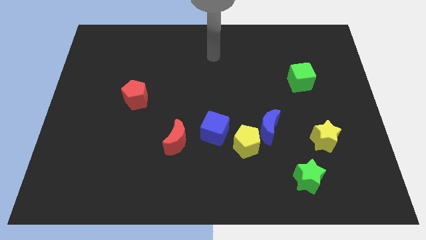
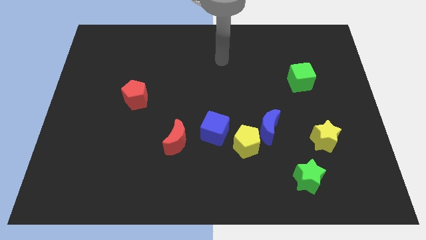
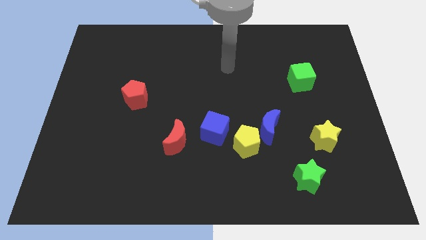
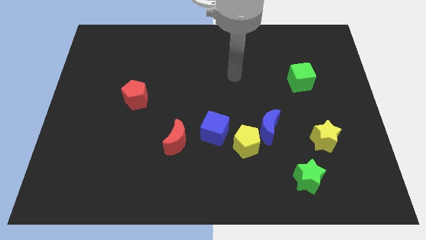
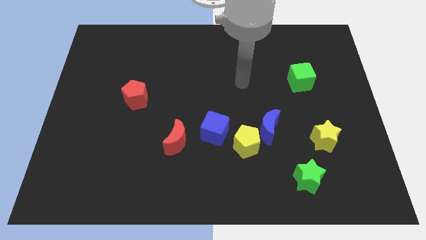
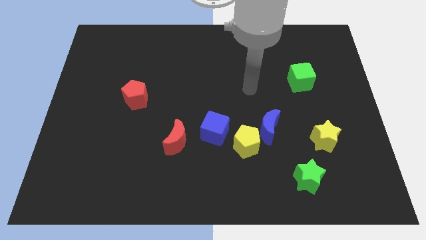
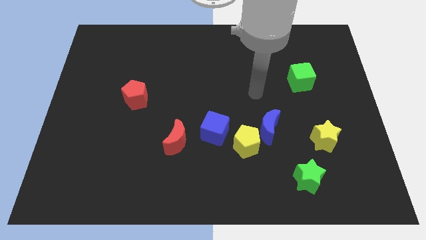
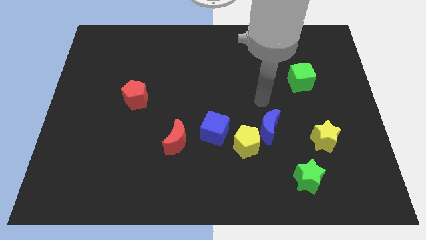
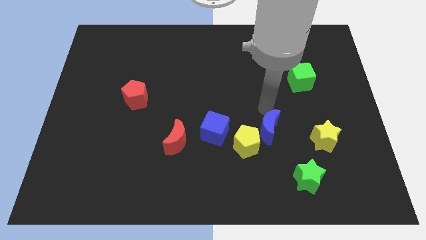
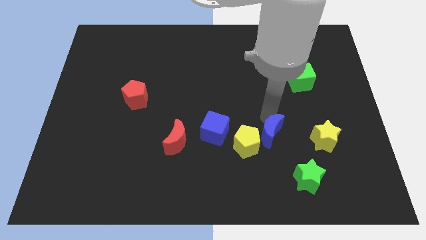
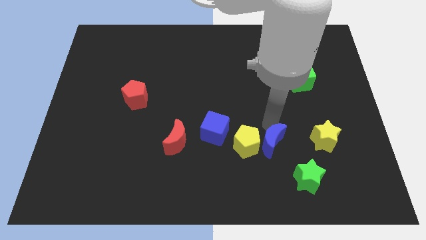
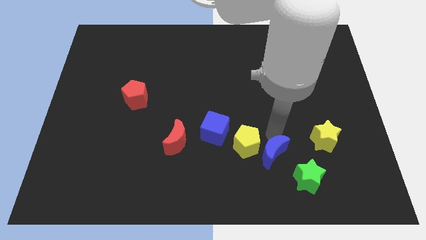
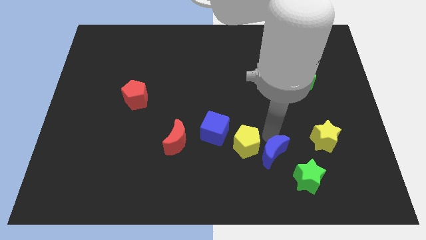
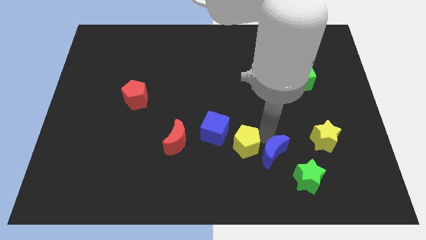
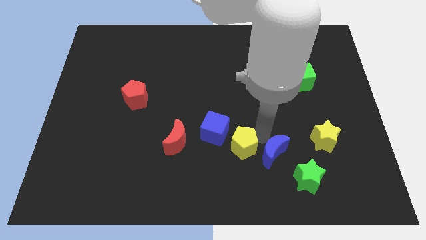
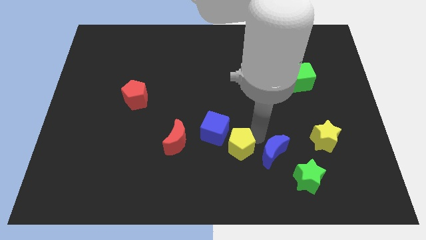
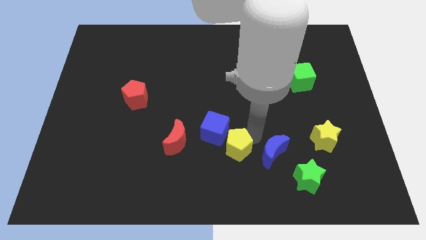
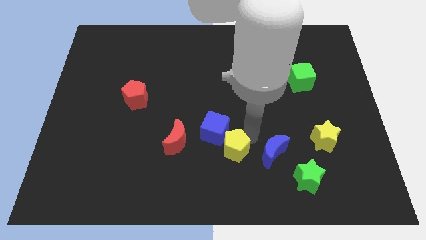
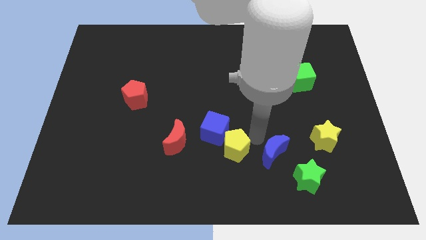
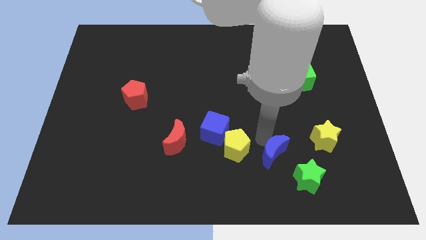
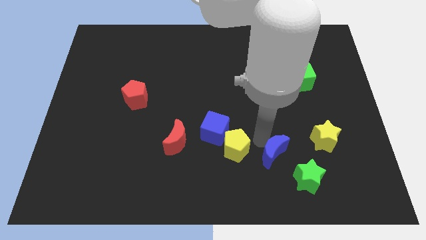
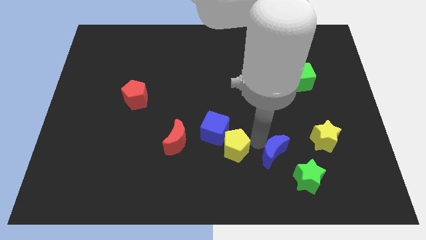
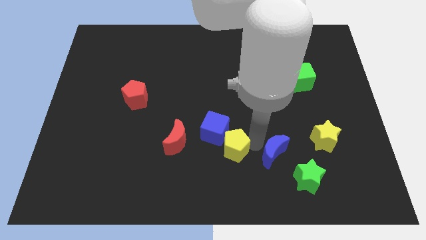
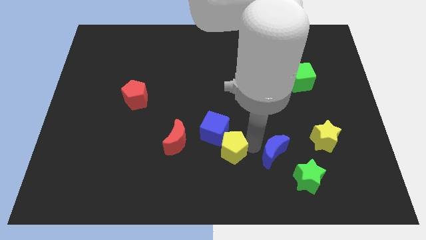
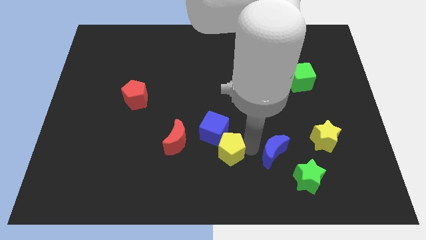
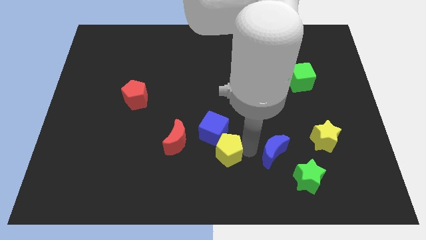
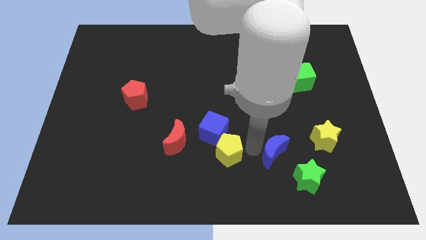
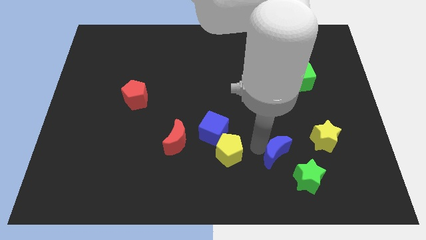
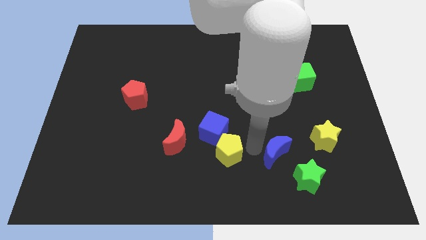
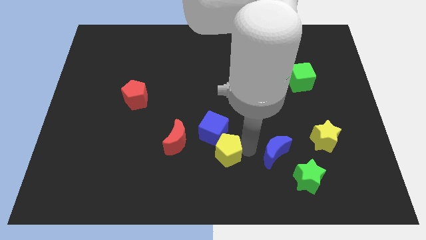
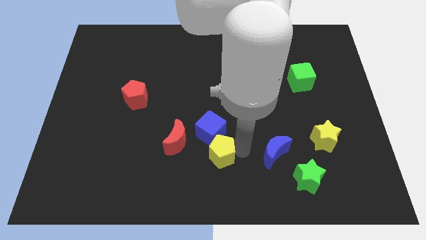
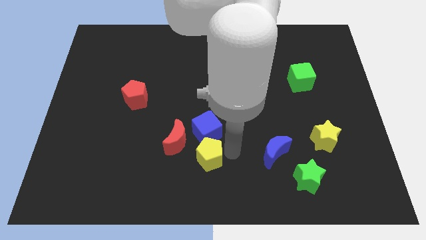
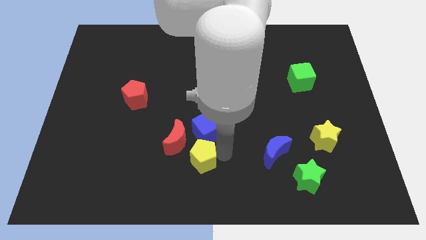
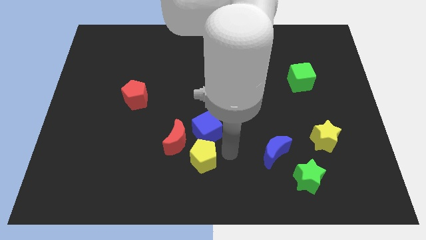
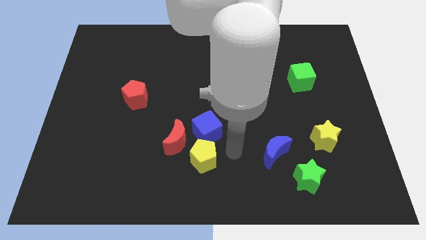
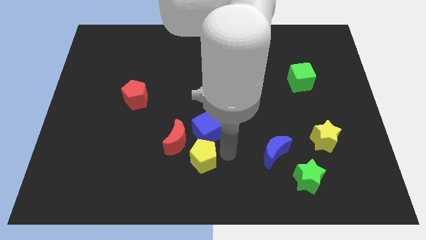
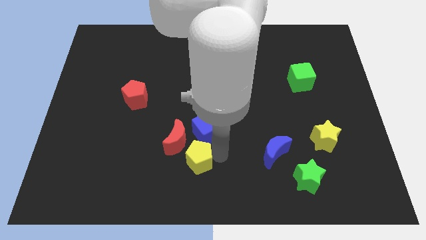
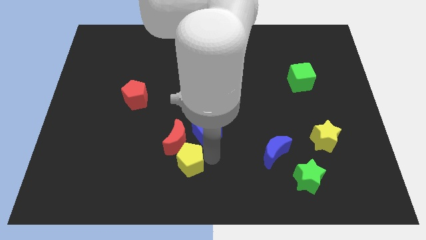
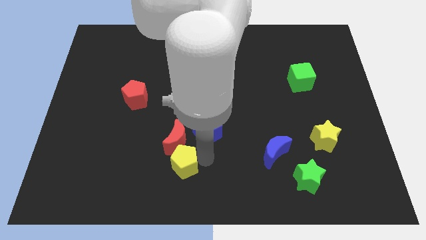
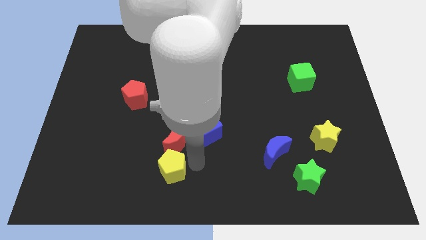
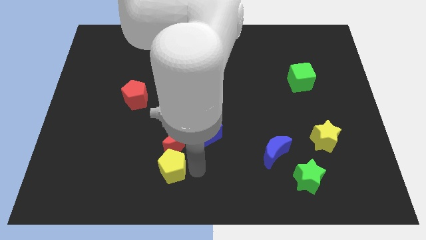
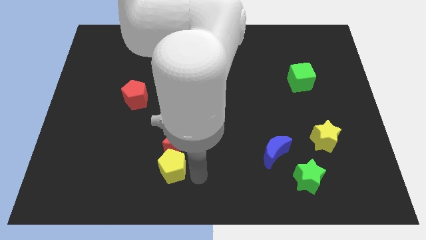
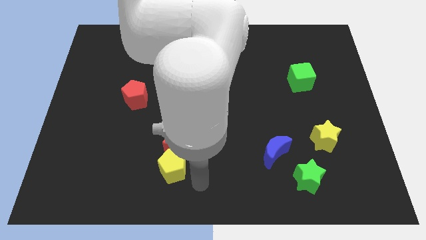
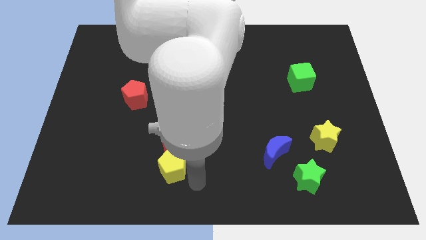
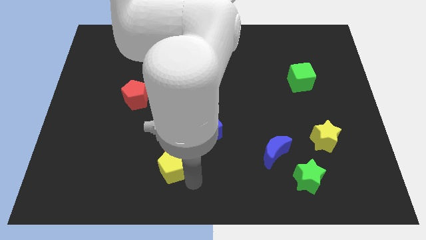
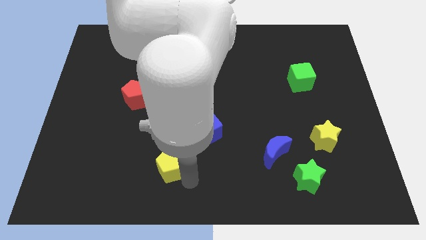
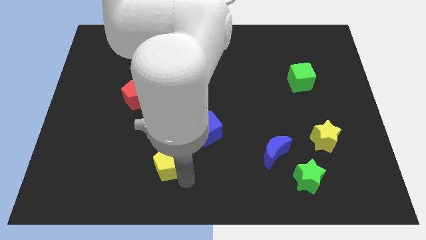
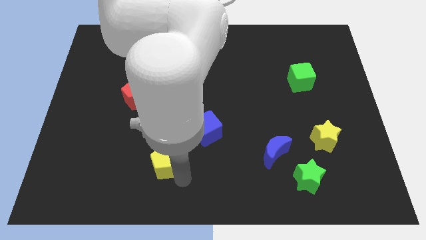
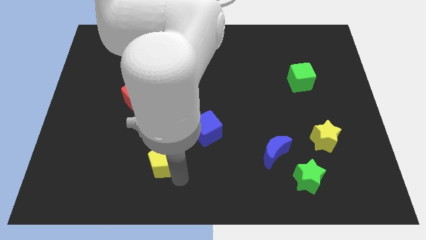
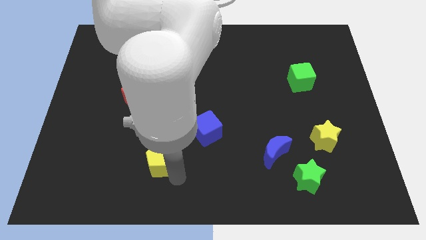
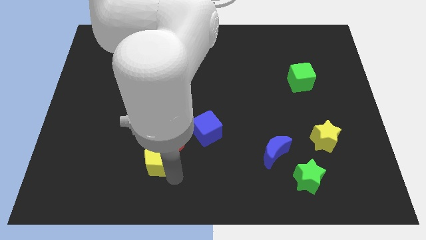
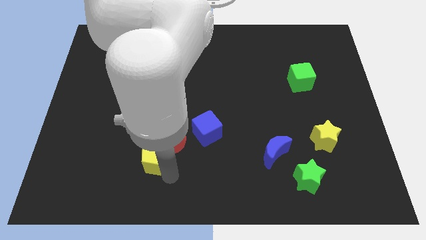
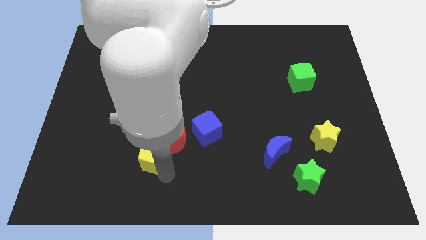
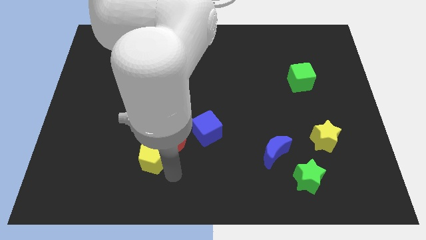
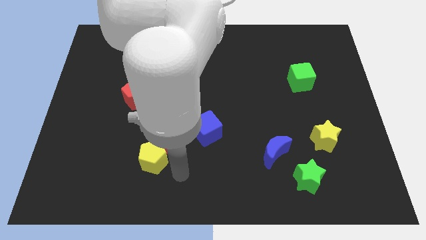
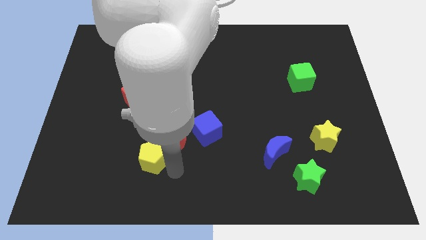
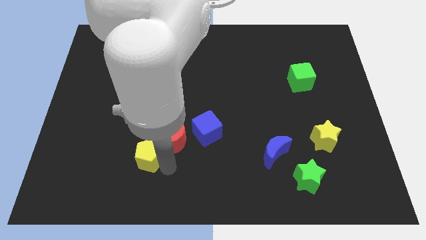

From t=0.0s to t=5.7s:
slide the yellow pentagon to the left

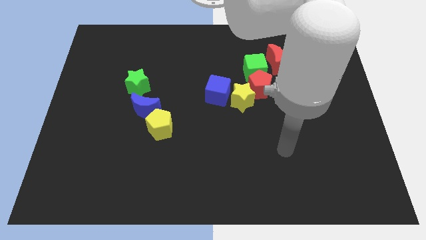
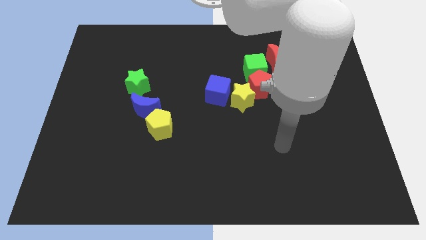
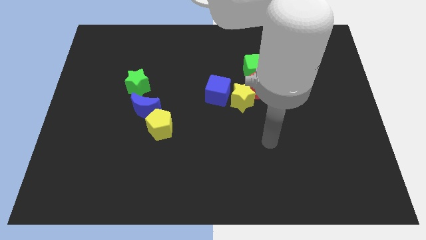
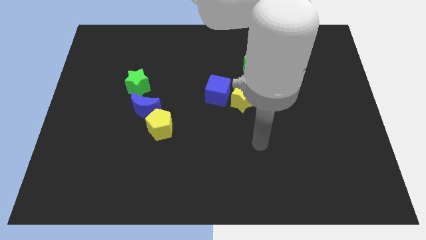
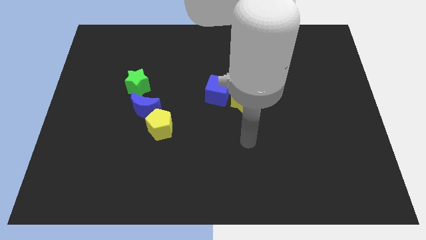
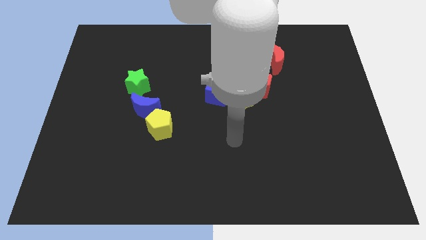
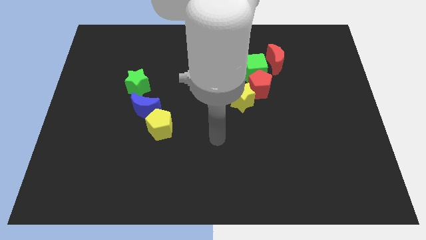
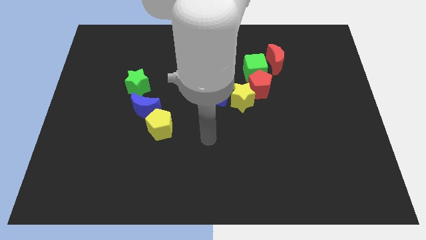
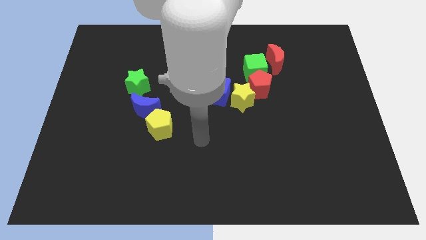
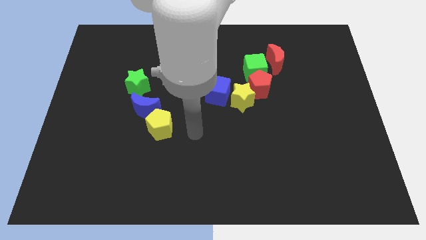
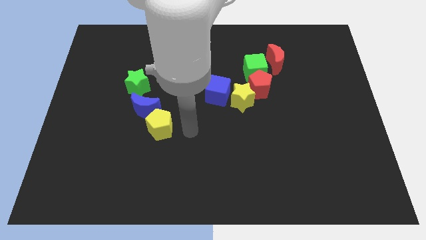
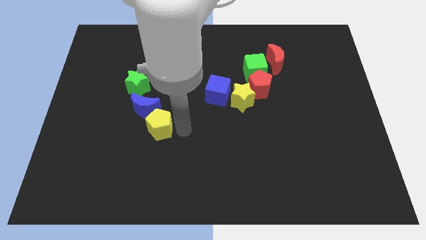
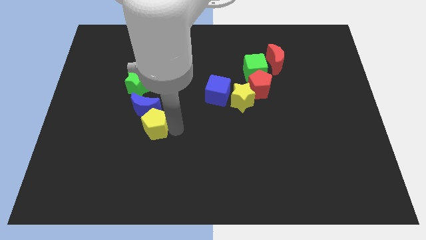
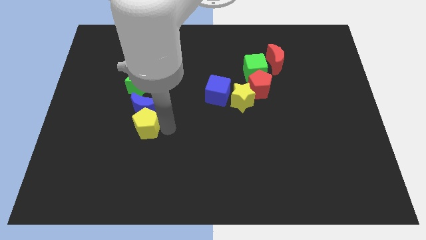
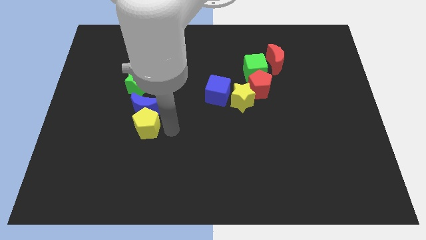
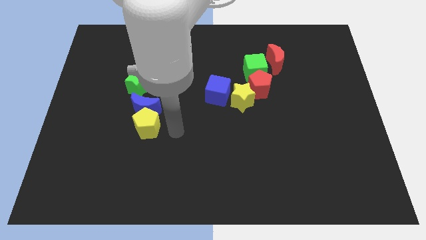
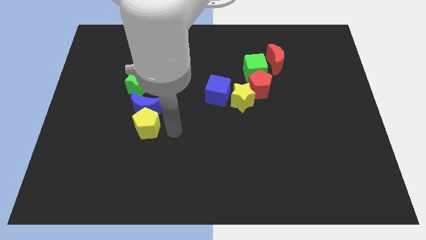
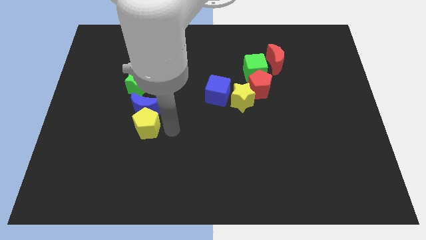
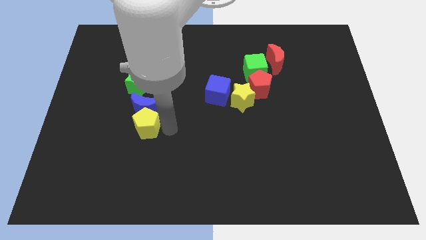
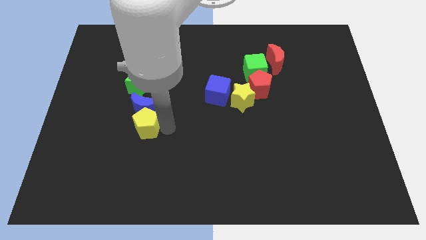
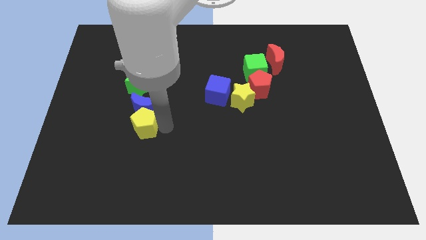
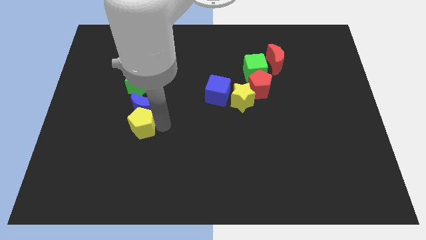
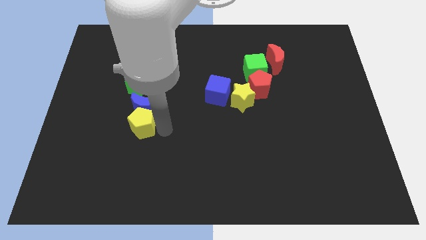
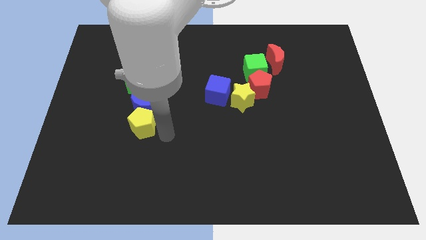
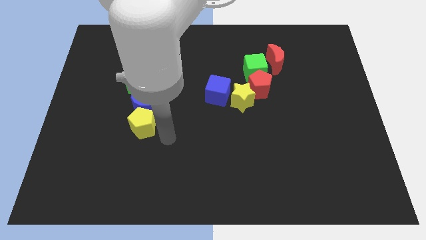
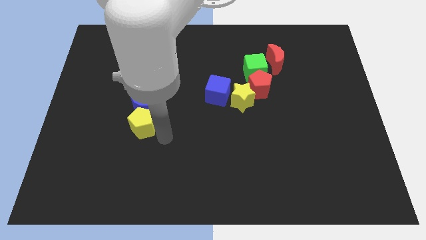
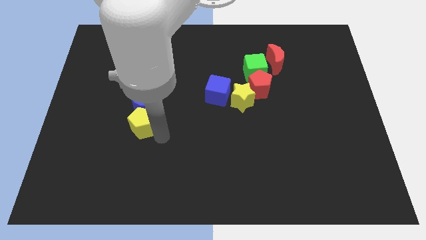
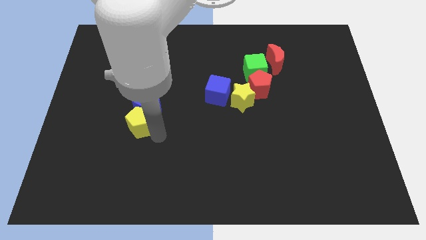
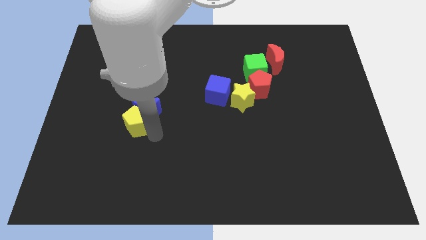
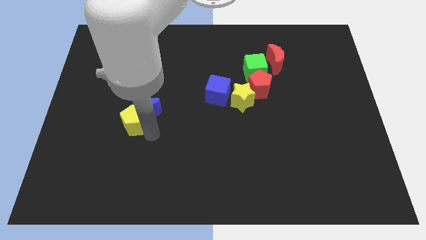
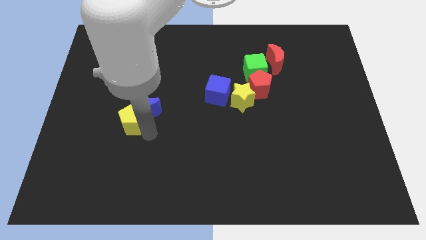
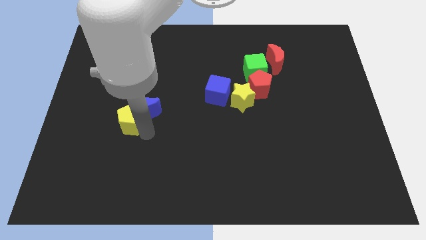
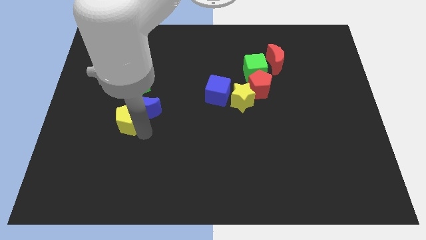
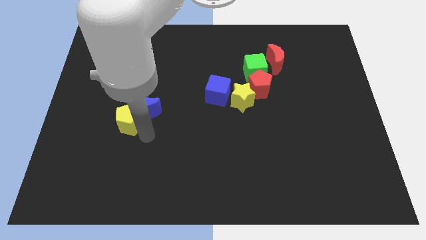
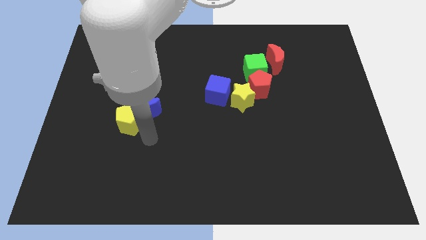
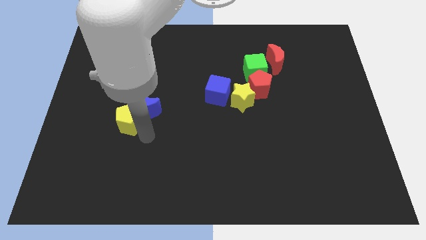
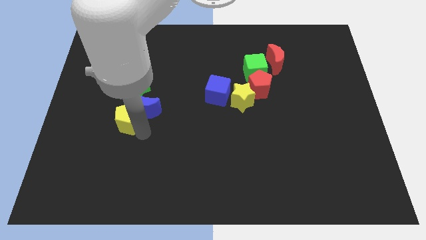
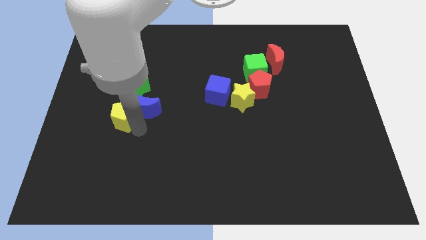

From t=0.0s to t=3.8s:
slightly push the yellow pentagon upwards and left diagonally
